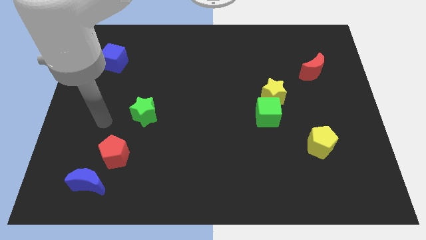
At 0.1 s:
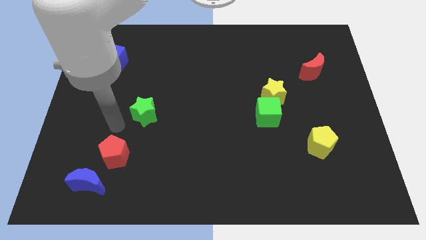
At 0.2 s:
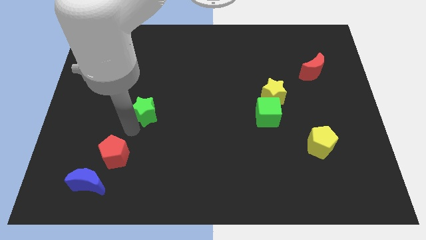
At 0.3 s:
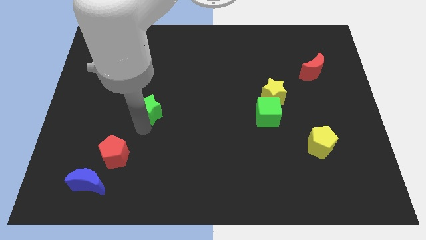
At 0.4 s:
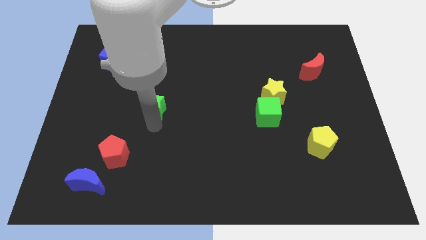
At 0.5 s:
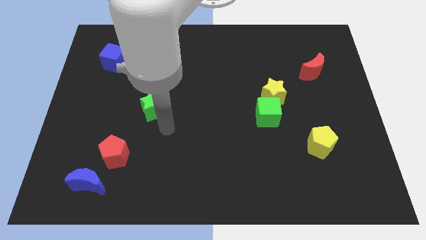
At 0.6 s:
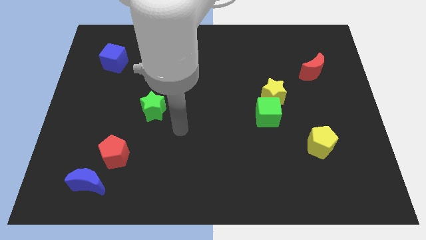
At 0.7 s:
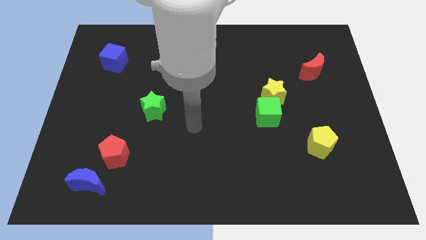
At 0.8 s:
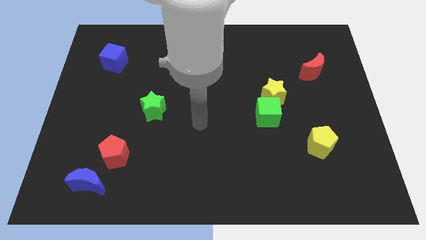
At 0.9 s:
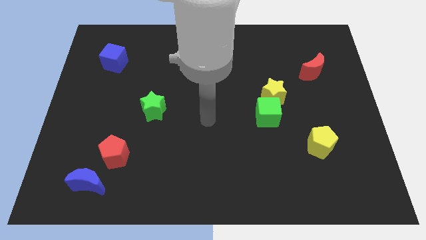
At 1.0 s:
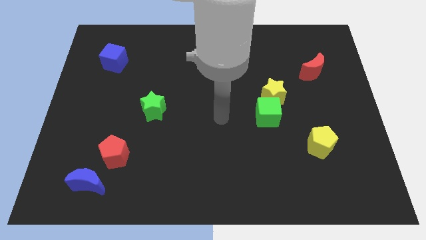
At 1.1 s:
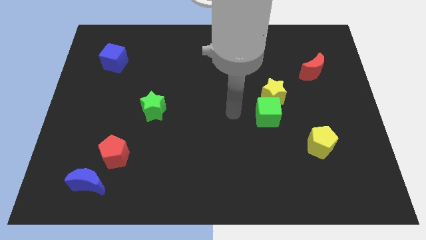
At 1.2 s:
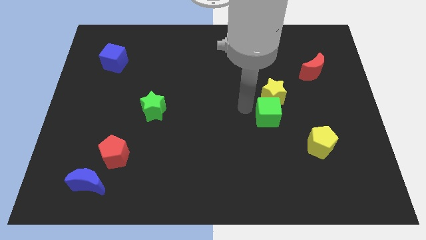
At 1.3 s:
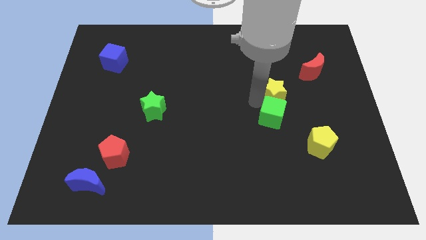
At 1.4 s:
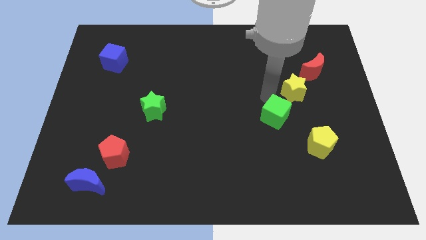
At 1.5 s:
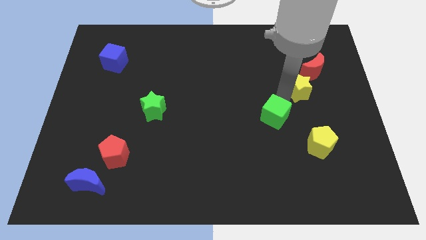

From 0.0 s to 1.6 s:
pull the green cube apart from the yellow star

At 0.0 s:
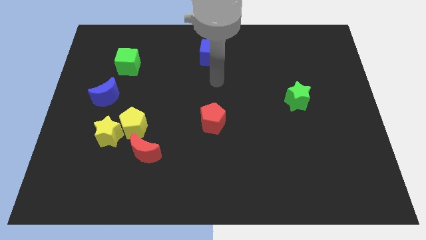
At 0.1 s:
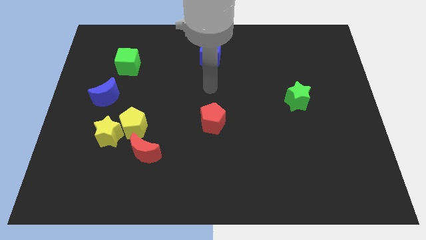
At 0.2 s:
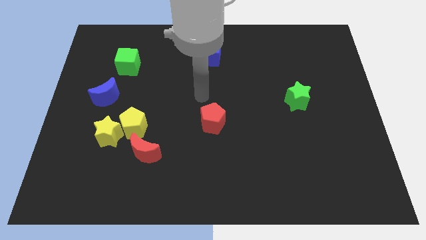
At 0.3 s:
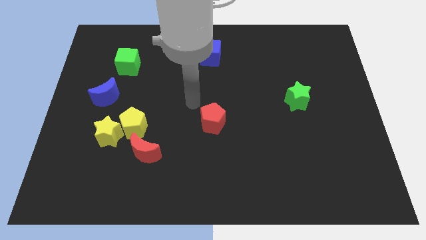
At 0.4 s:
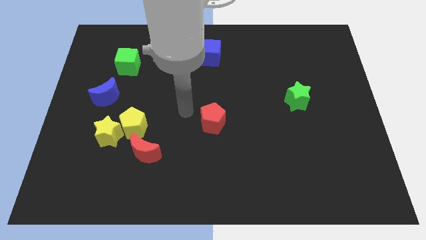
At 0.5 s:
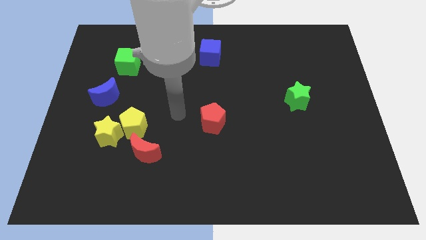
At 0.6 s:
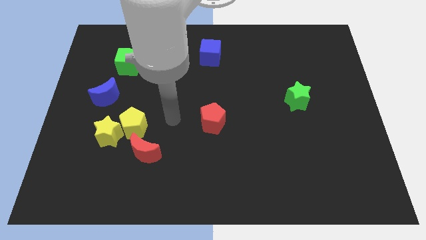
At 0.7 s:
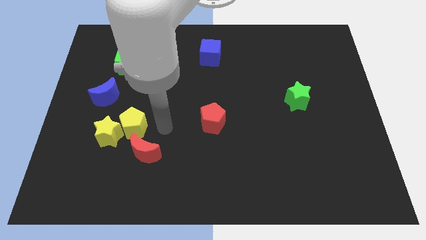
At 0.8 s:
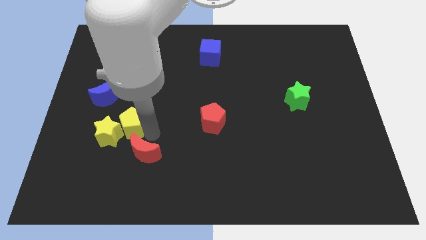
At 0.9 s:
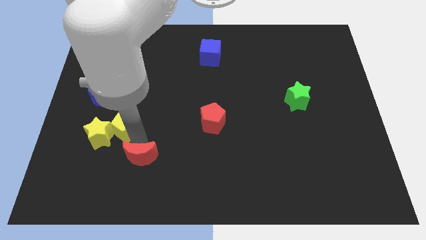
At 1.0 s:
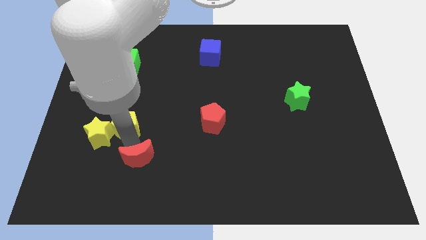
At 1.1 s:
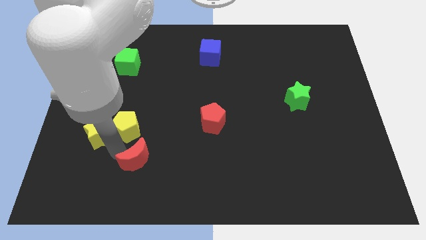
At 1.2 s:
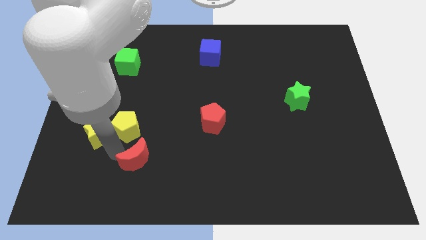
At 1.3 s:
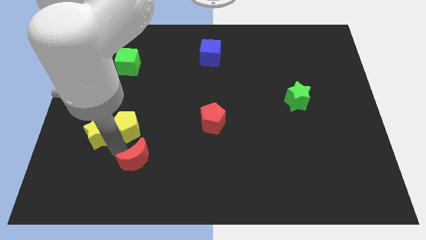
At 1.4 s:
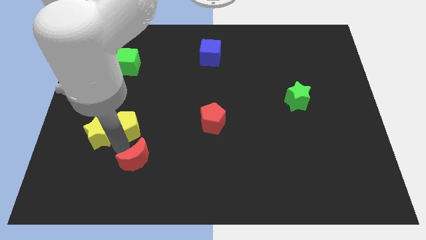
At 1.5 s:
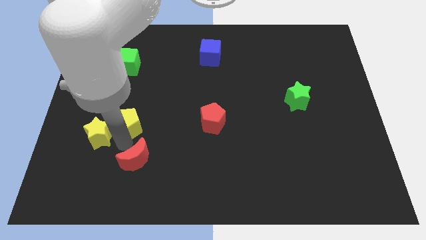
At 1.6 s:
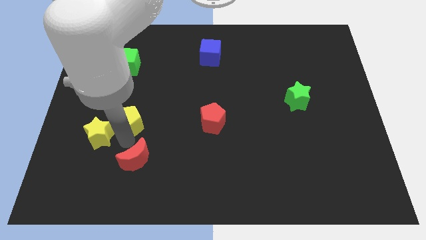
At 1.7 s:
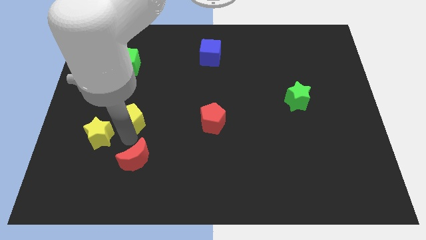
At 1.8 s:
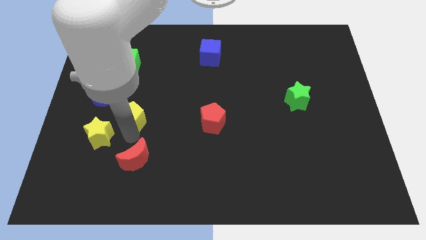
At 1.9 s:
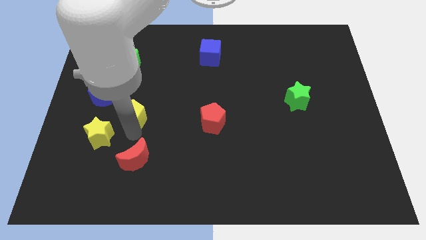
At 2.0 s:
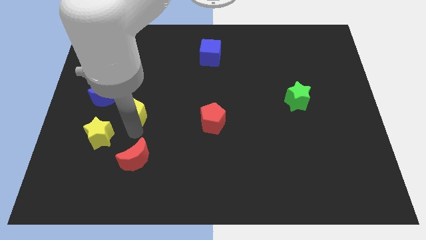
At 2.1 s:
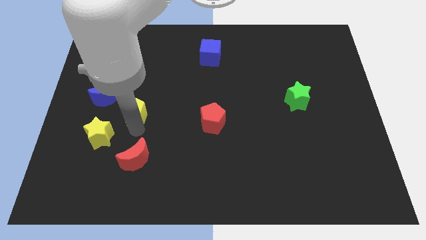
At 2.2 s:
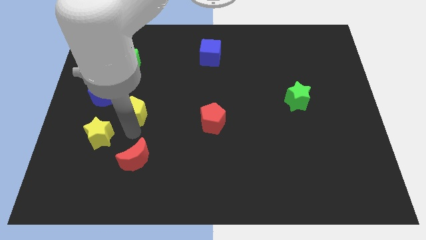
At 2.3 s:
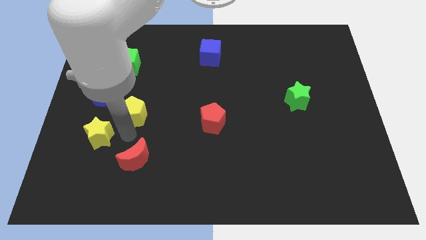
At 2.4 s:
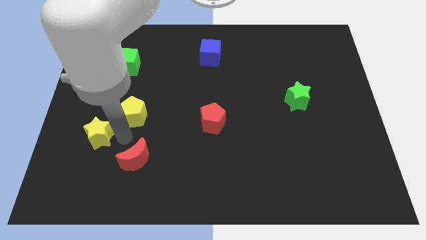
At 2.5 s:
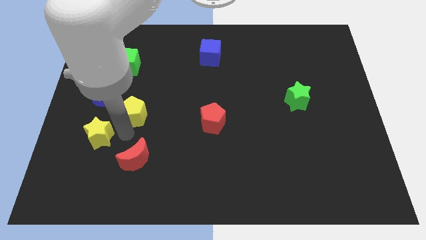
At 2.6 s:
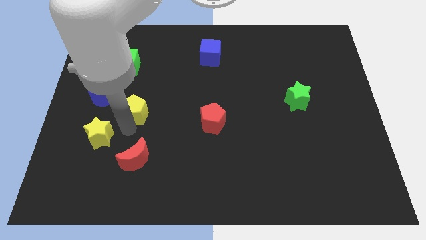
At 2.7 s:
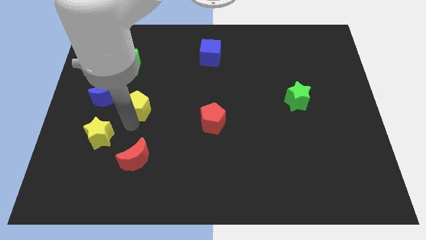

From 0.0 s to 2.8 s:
separate the yellow pentagon from the yellow star and red moon

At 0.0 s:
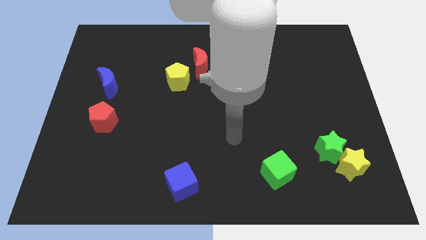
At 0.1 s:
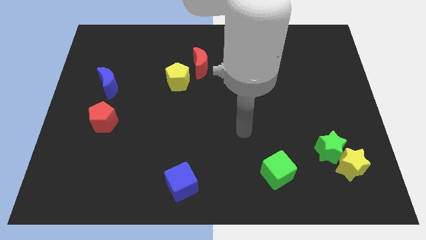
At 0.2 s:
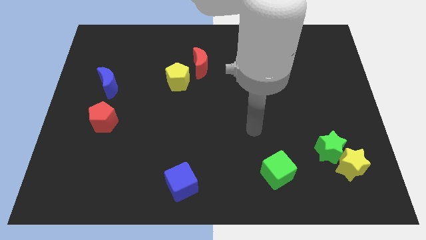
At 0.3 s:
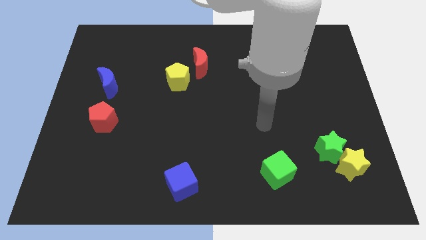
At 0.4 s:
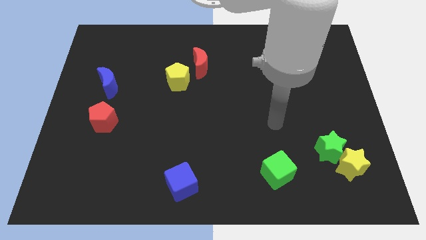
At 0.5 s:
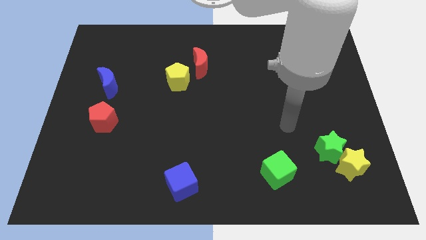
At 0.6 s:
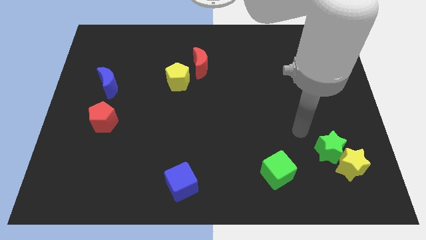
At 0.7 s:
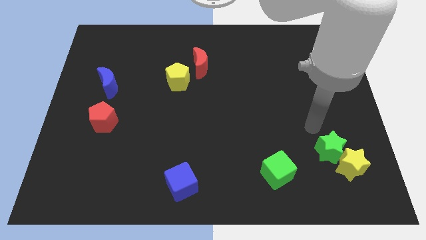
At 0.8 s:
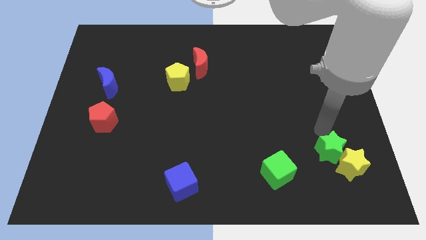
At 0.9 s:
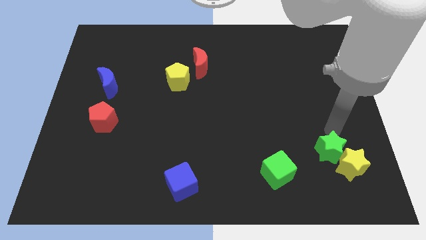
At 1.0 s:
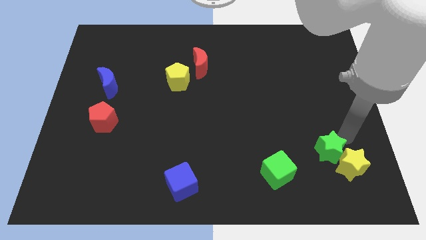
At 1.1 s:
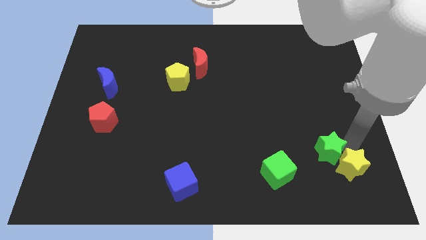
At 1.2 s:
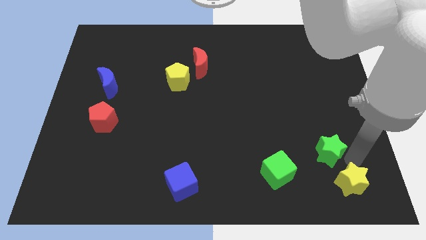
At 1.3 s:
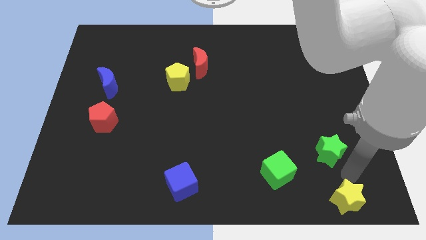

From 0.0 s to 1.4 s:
separate the green star from the yellow star

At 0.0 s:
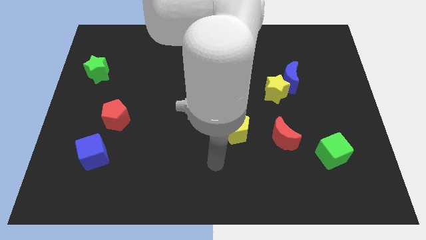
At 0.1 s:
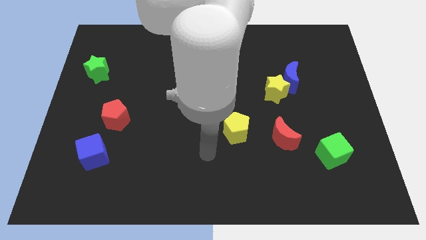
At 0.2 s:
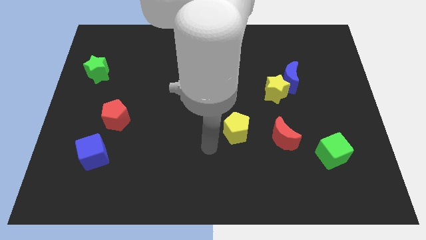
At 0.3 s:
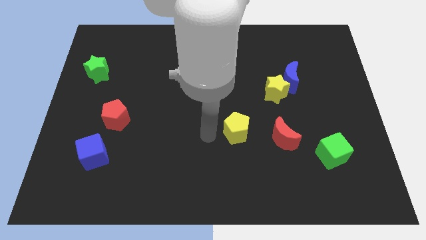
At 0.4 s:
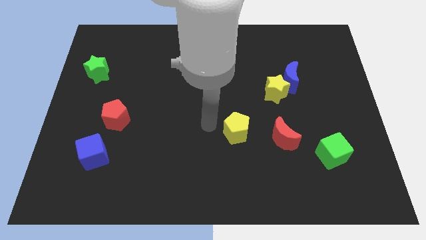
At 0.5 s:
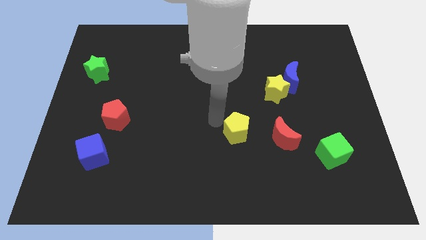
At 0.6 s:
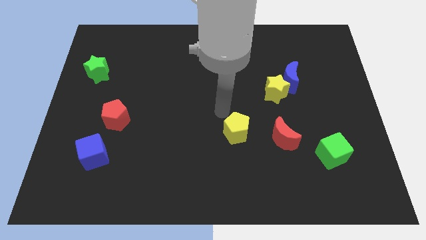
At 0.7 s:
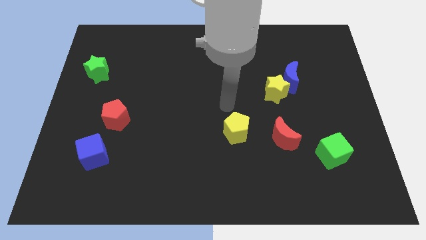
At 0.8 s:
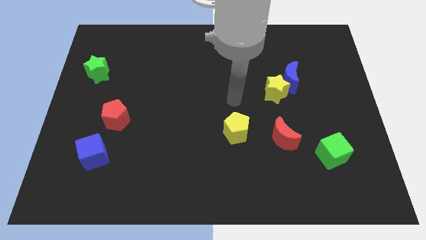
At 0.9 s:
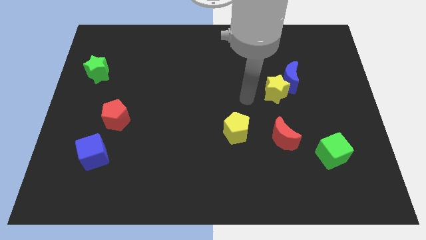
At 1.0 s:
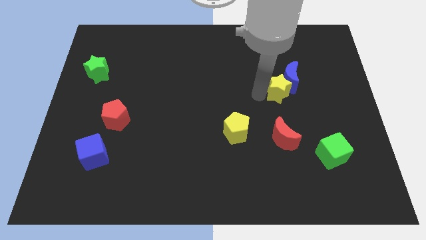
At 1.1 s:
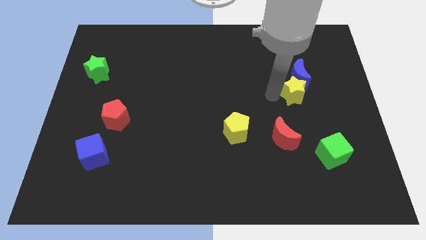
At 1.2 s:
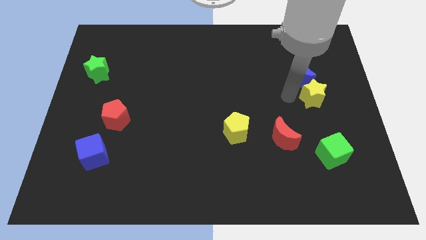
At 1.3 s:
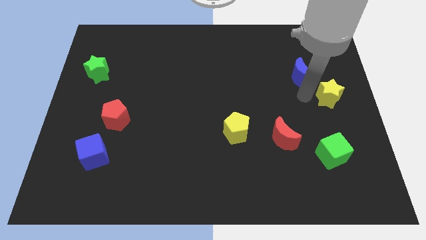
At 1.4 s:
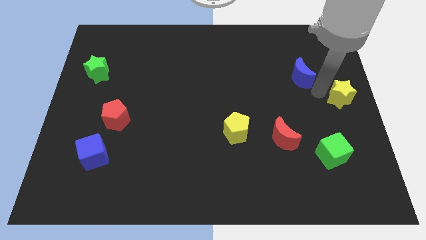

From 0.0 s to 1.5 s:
separate the blue moon from the yellow star

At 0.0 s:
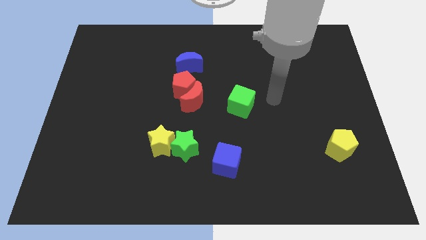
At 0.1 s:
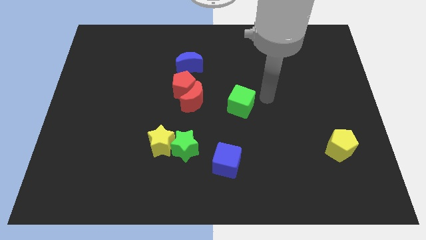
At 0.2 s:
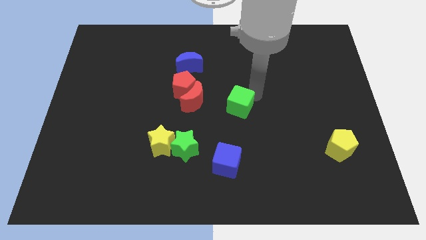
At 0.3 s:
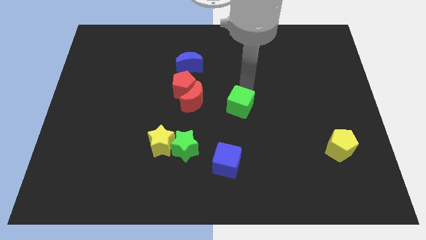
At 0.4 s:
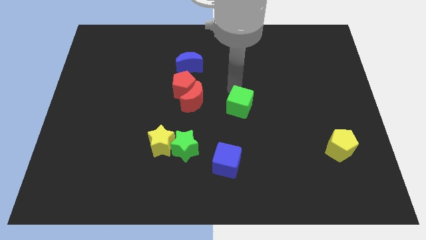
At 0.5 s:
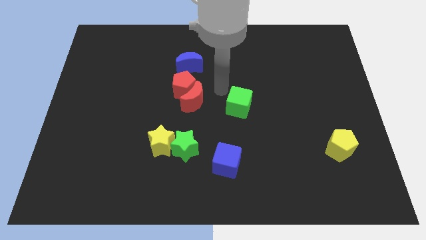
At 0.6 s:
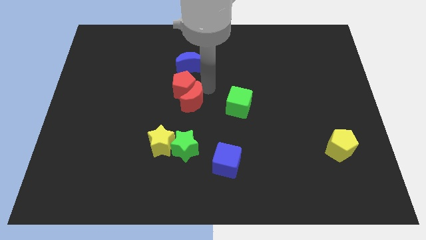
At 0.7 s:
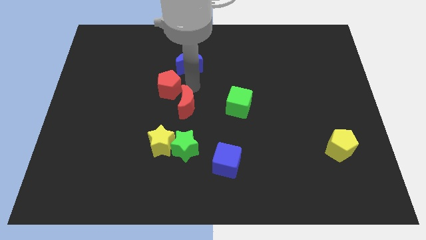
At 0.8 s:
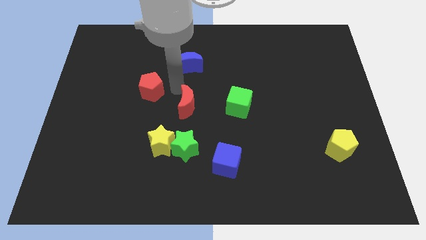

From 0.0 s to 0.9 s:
move the red moon away from the red pentagon

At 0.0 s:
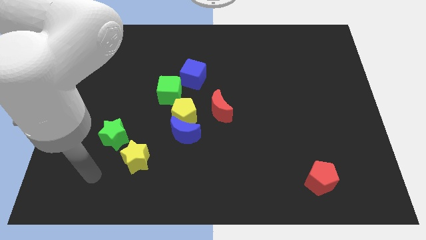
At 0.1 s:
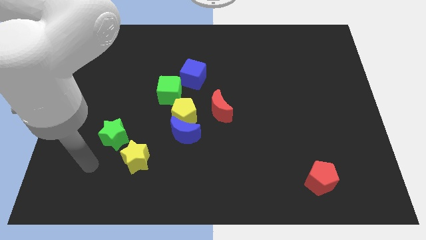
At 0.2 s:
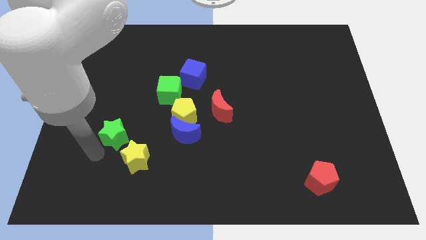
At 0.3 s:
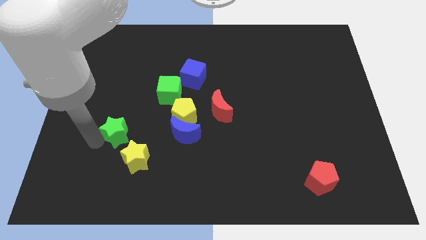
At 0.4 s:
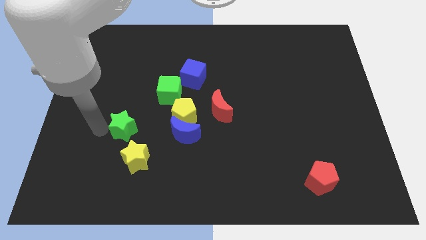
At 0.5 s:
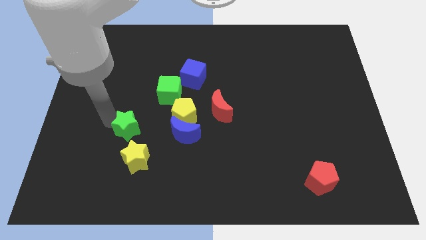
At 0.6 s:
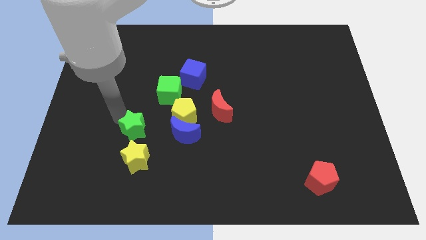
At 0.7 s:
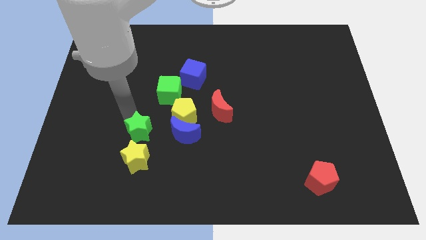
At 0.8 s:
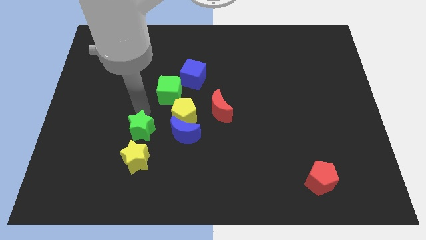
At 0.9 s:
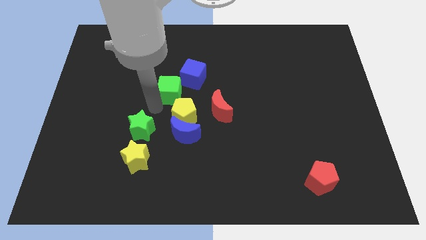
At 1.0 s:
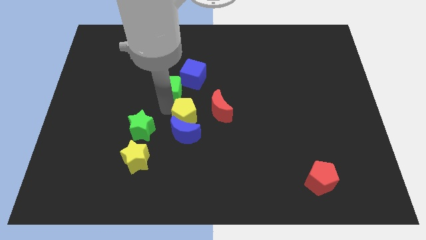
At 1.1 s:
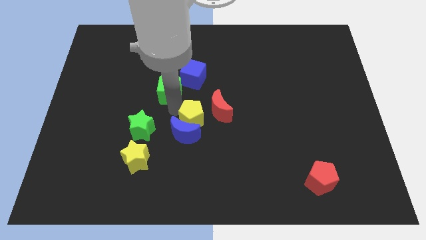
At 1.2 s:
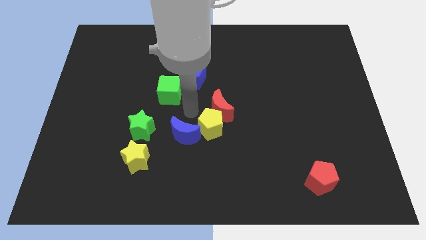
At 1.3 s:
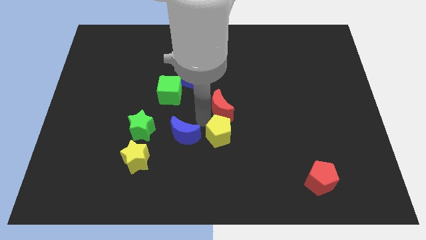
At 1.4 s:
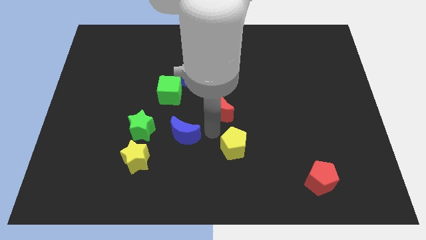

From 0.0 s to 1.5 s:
separate the blue moon from the yellow pentagon
